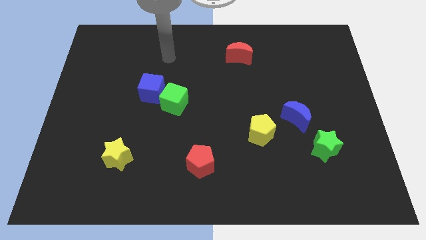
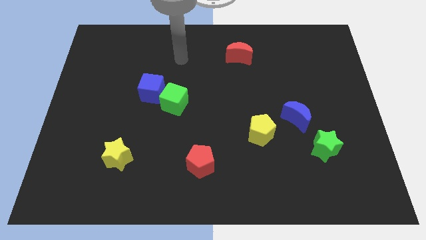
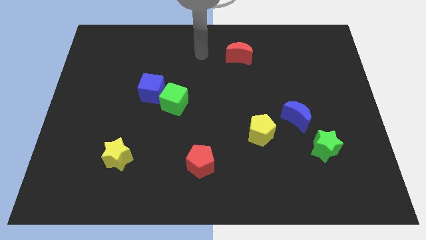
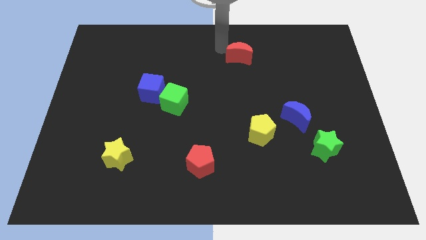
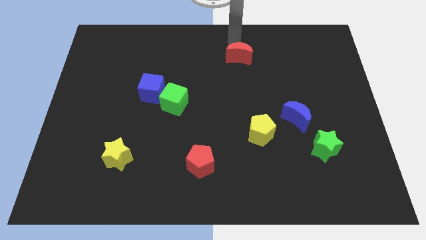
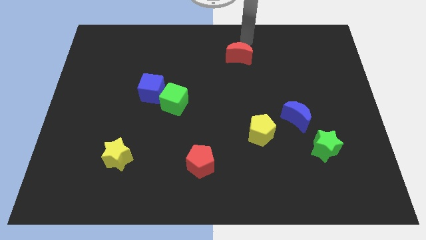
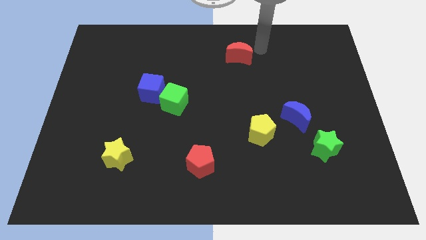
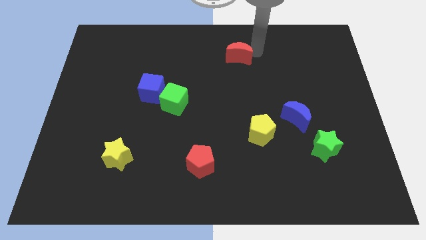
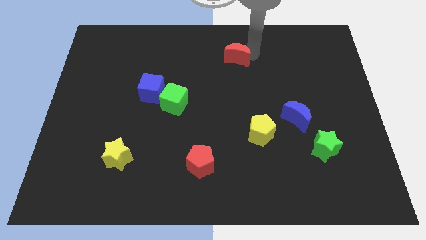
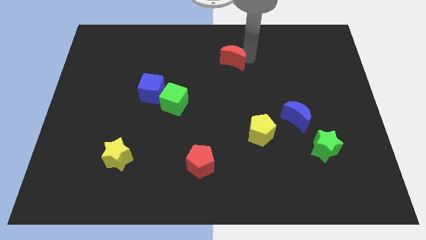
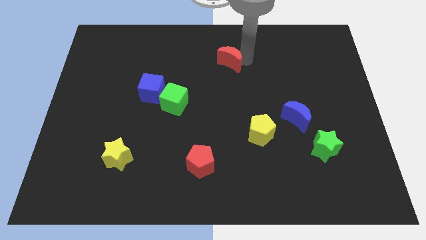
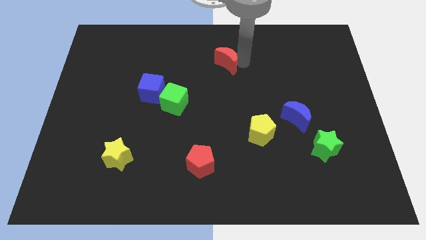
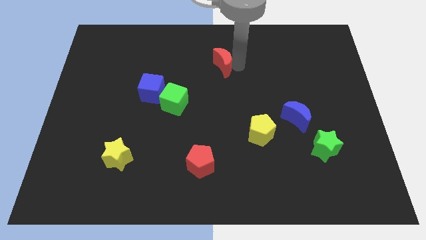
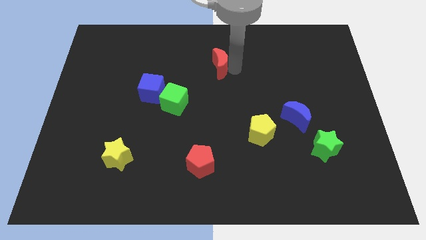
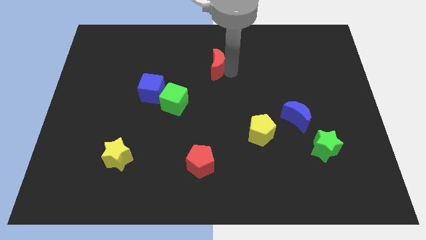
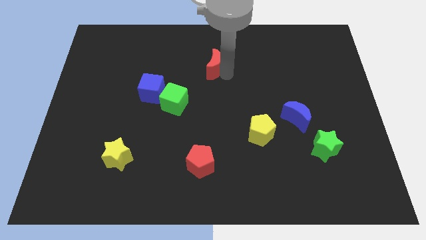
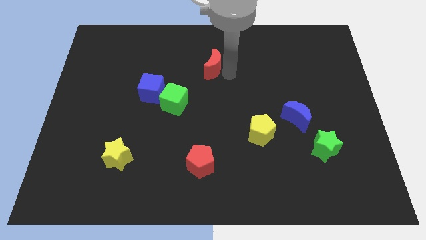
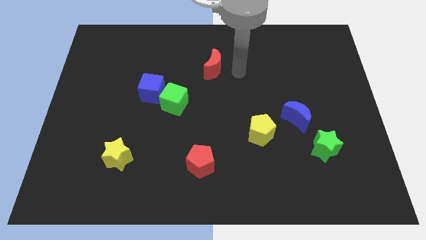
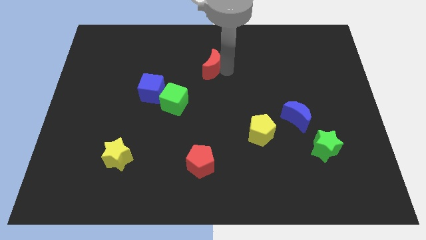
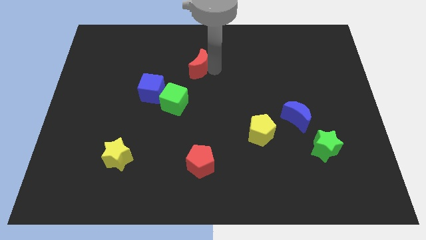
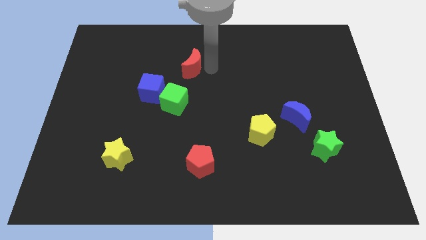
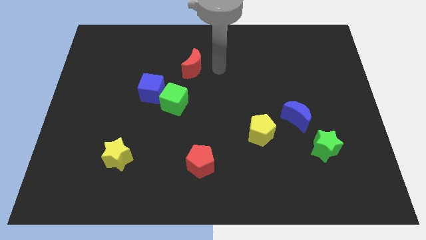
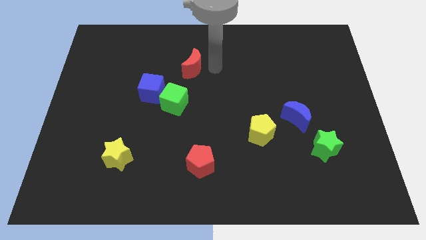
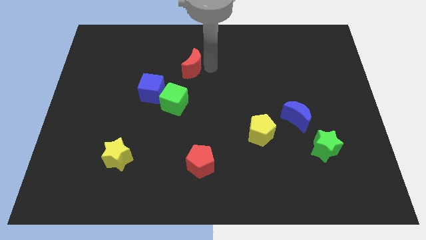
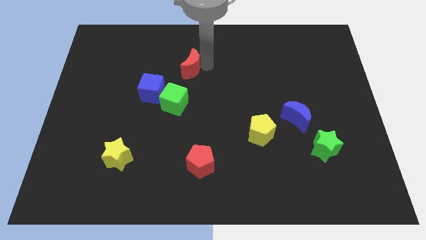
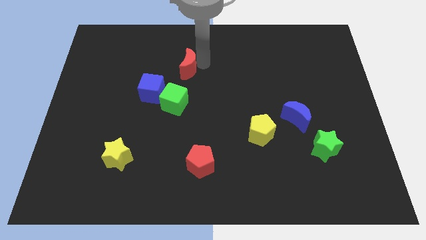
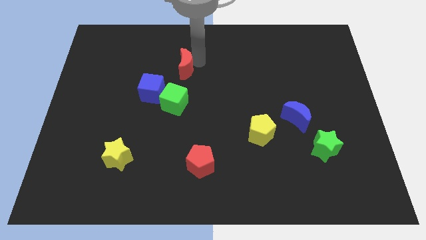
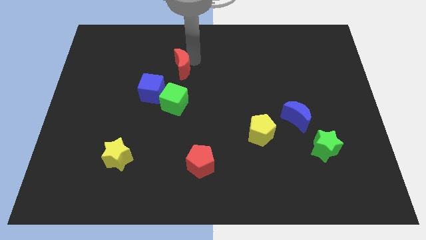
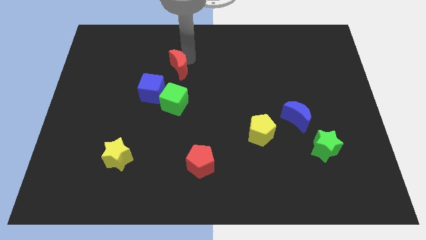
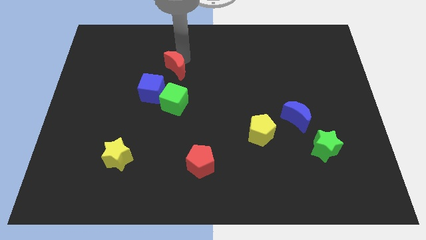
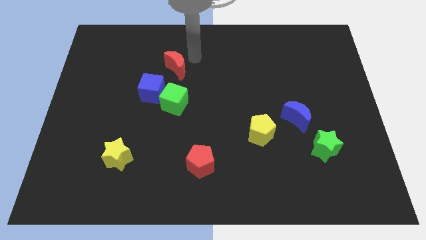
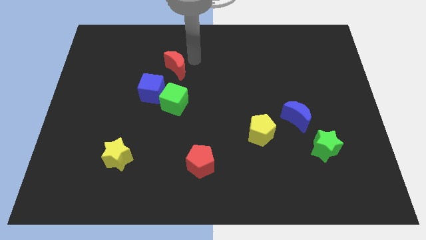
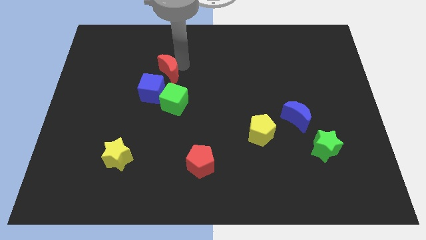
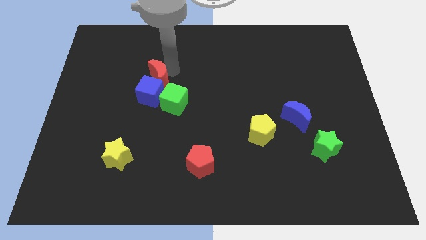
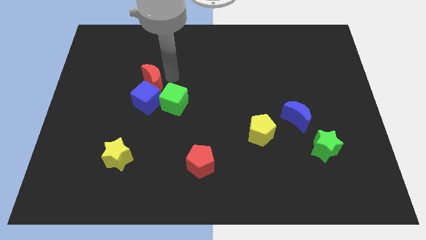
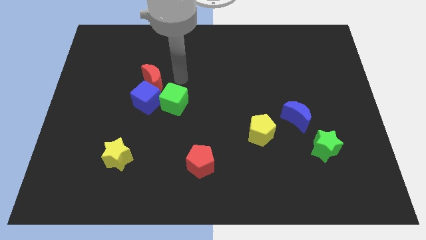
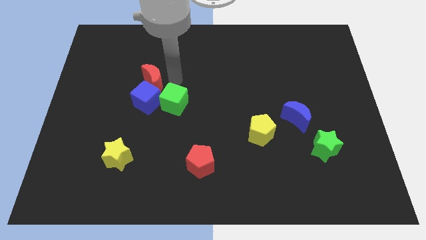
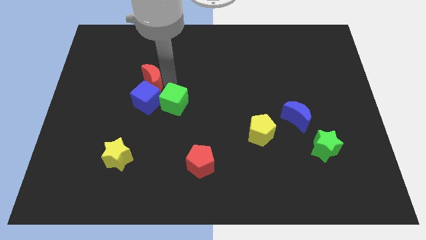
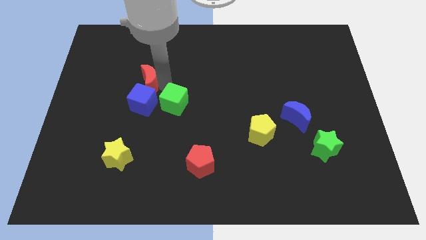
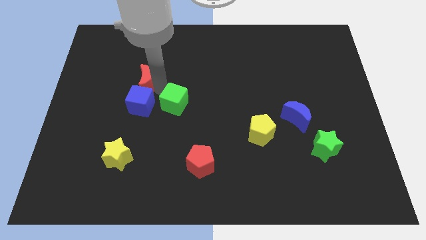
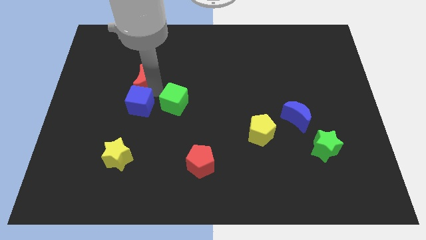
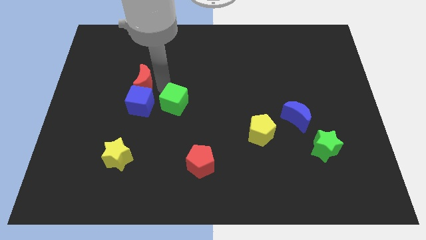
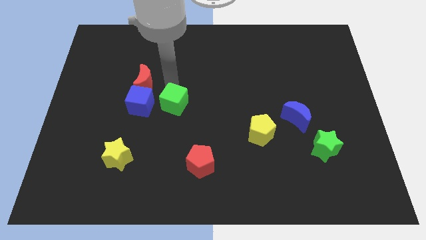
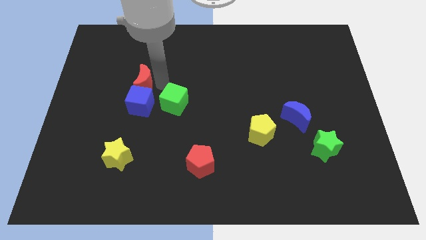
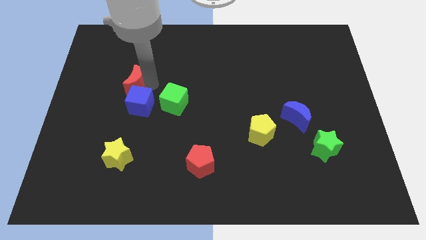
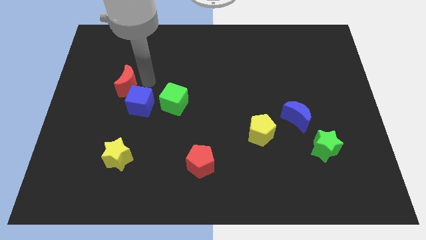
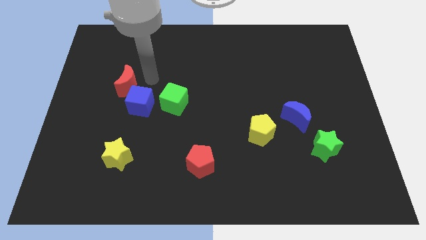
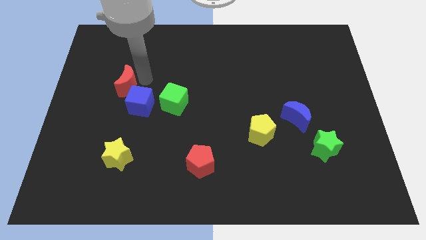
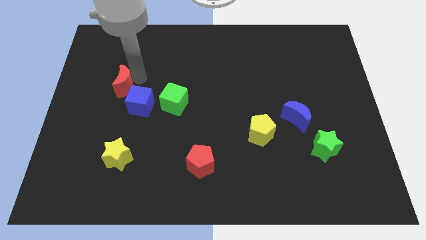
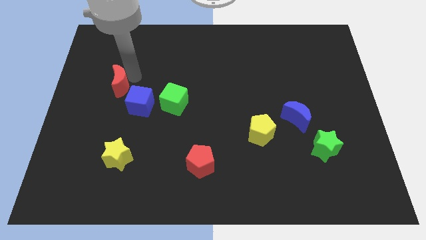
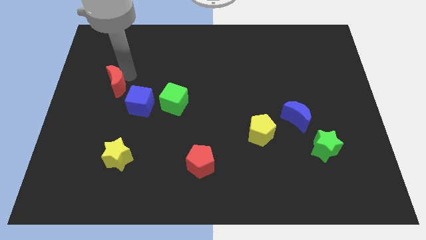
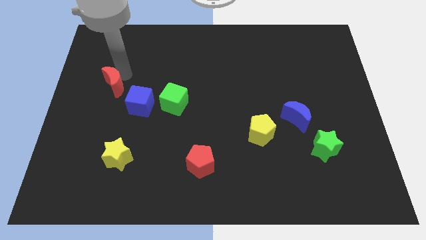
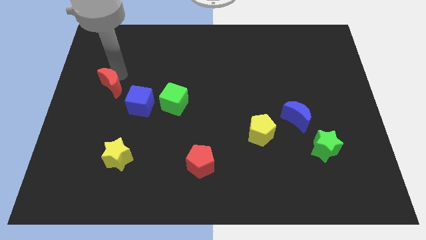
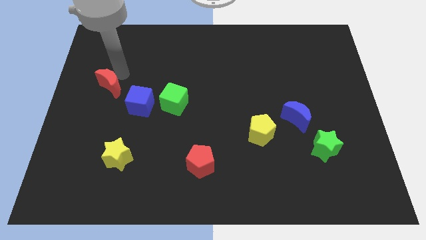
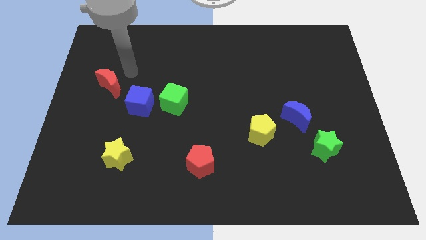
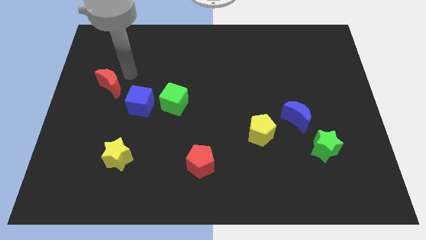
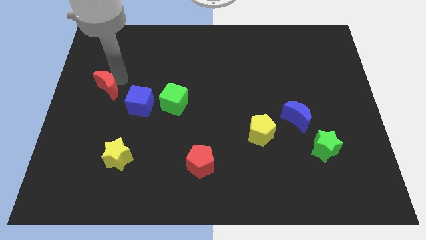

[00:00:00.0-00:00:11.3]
put the red moon to the left side

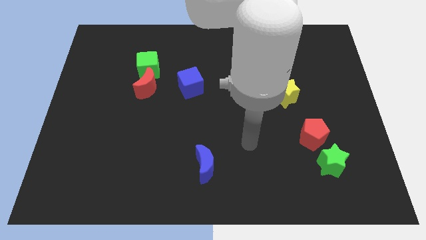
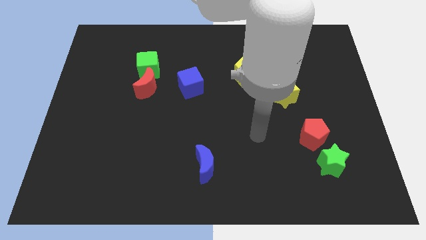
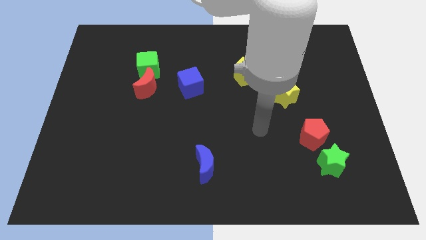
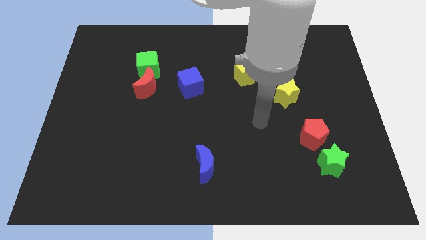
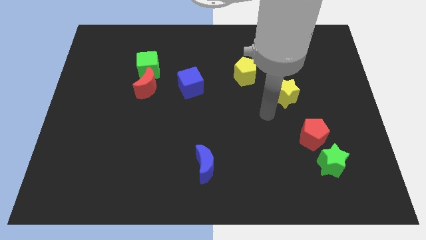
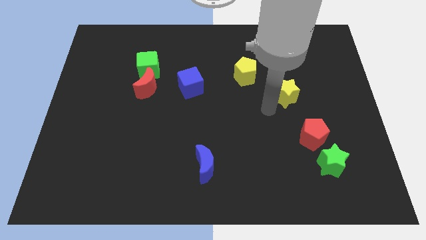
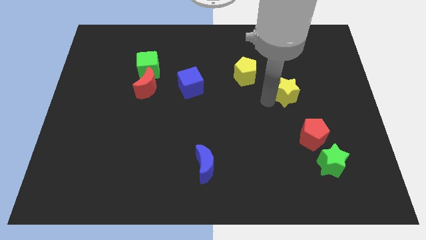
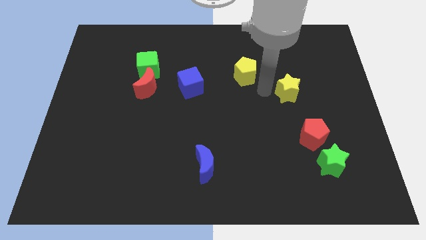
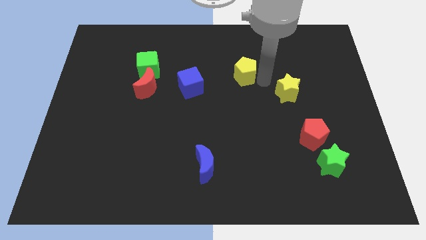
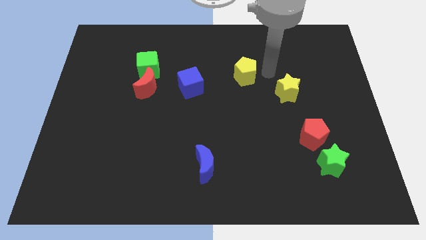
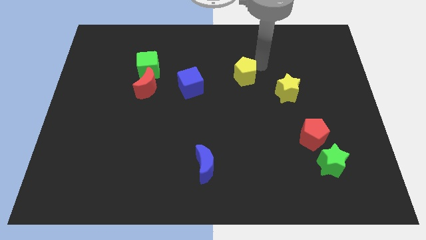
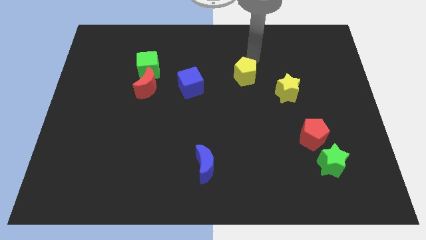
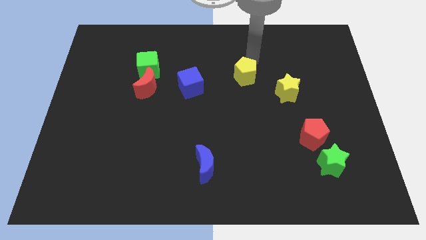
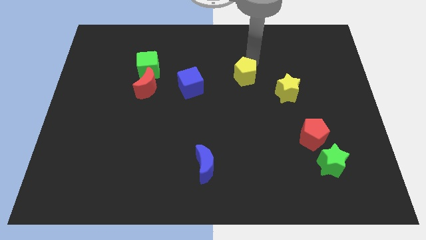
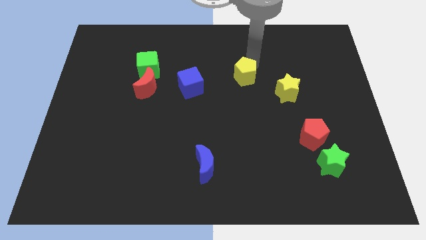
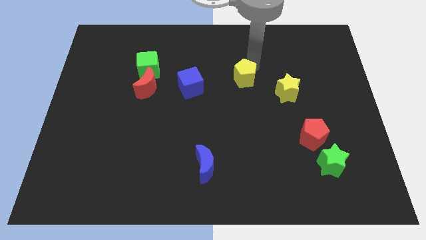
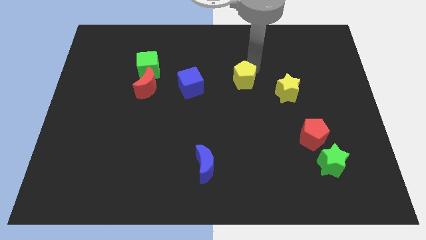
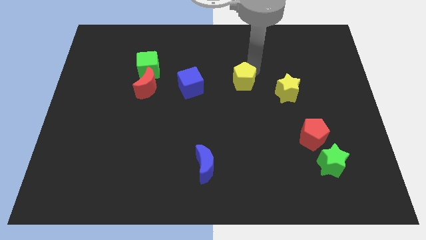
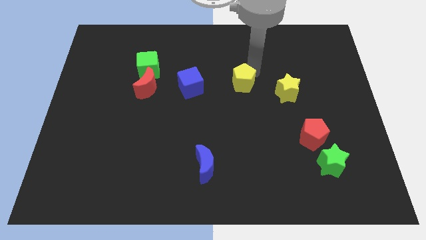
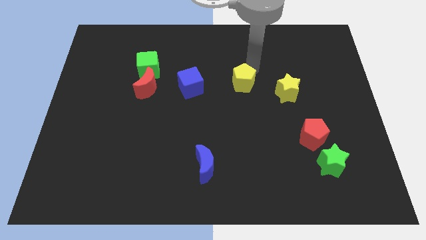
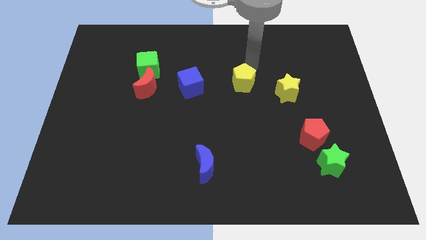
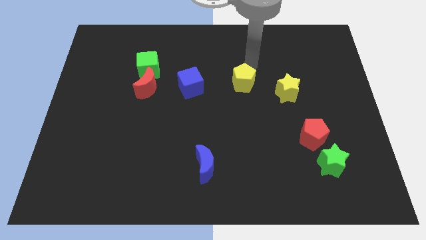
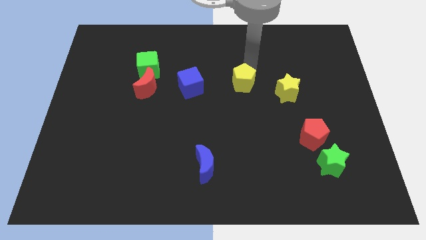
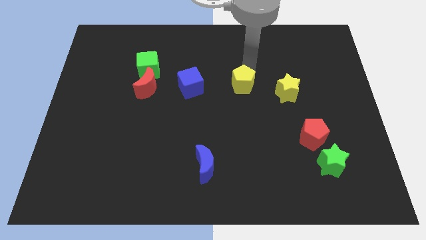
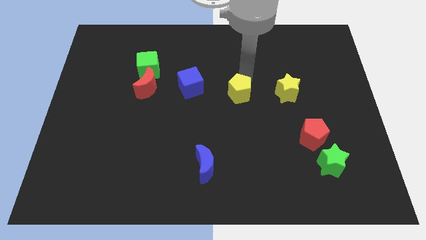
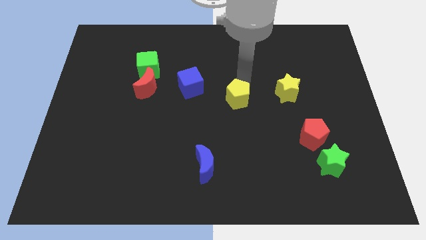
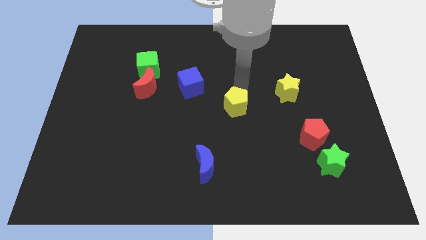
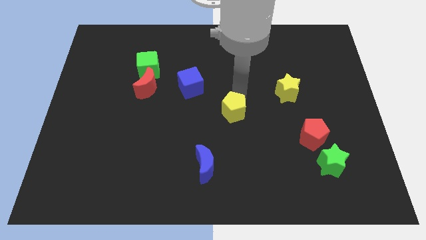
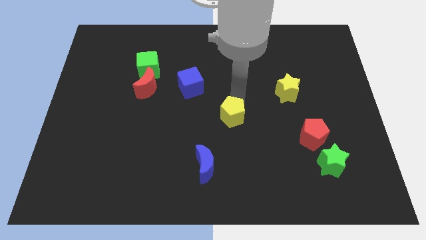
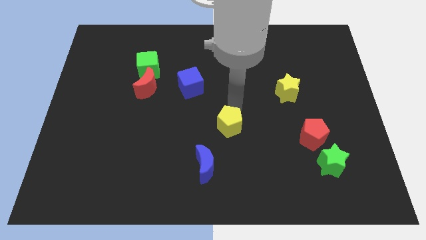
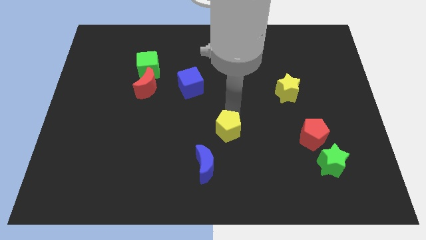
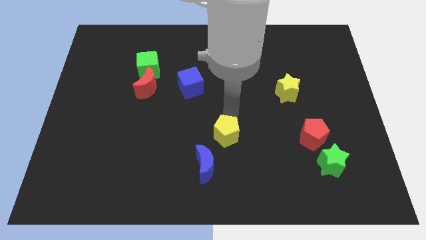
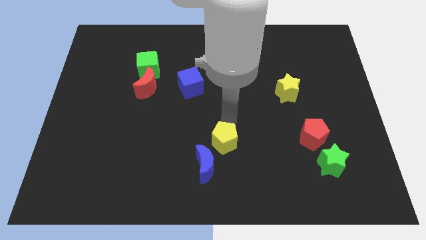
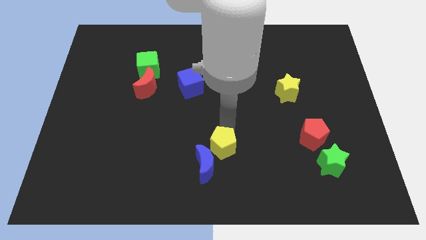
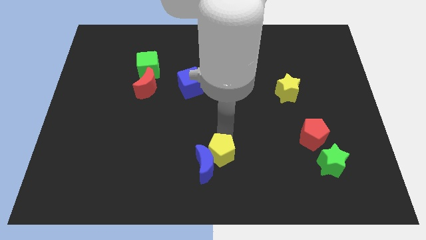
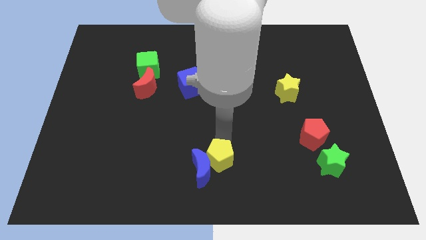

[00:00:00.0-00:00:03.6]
push the yellow pentagon to the bottom
